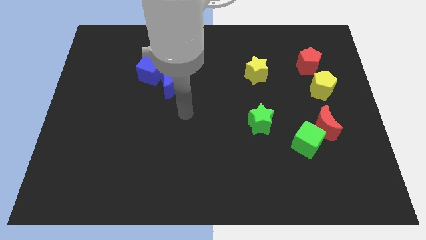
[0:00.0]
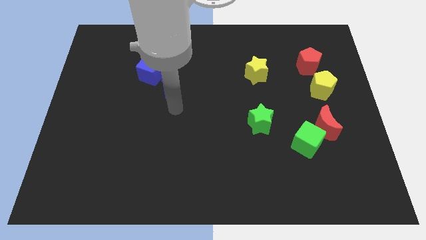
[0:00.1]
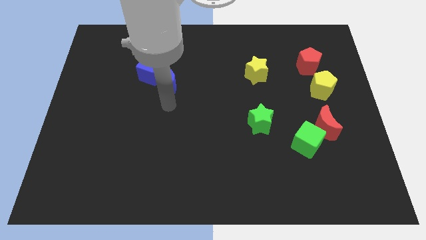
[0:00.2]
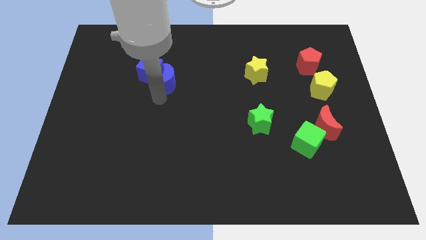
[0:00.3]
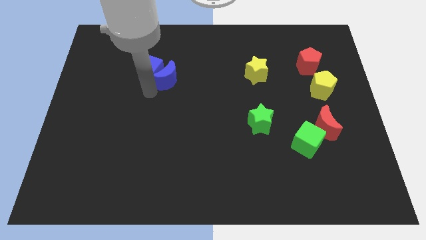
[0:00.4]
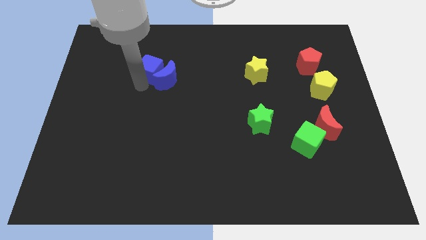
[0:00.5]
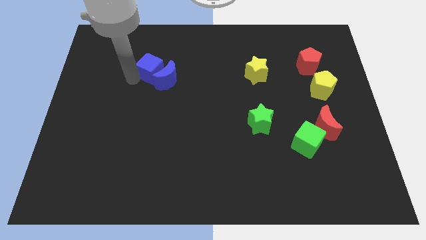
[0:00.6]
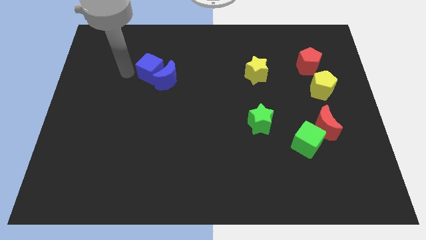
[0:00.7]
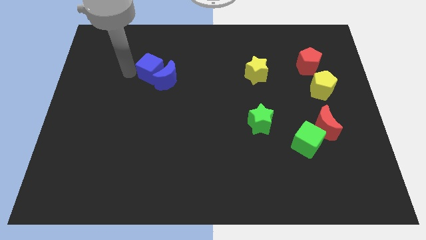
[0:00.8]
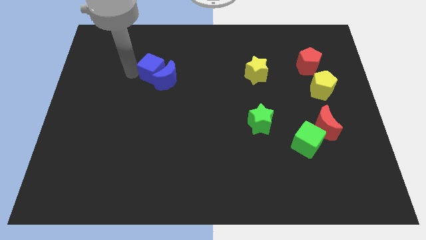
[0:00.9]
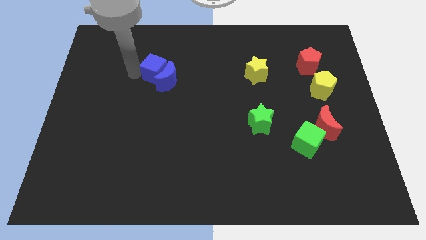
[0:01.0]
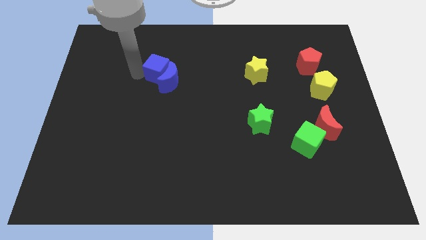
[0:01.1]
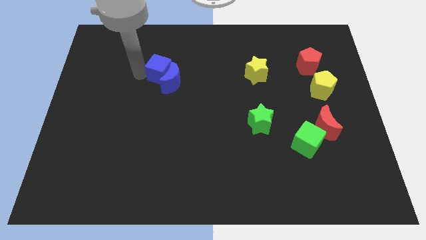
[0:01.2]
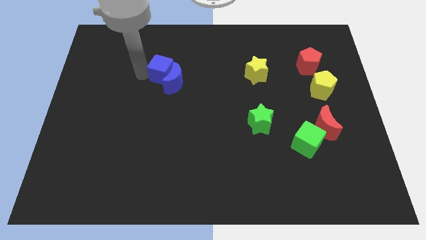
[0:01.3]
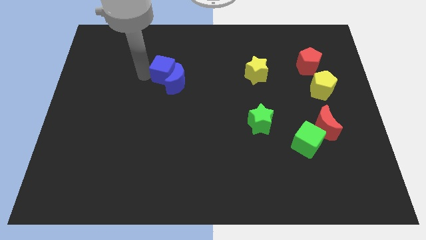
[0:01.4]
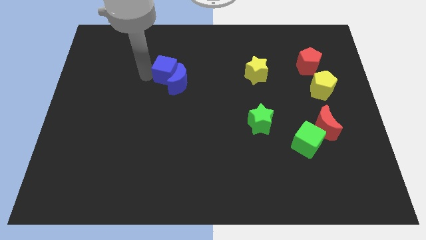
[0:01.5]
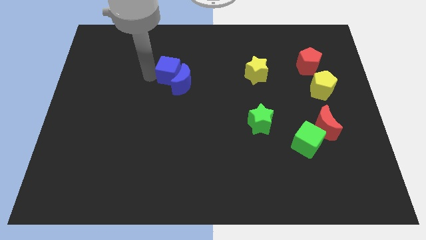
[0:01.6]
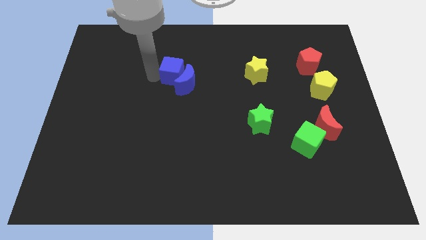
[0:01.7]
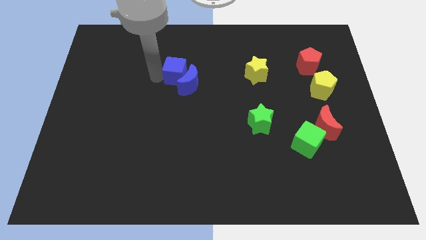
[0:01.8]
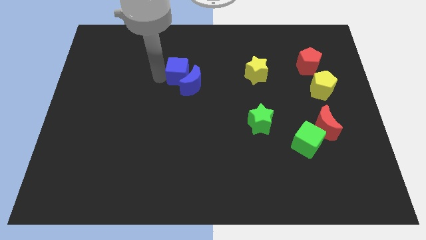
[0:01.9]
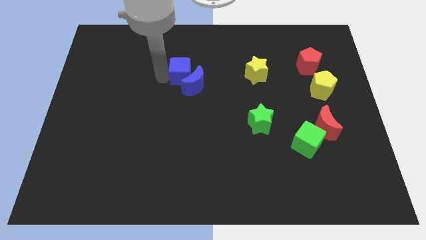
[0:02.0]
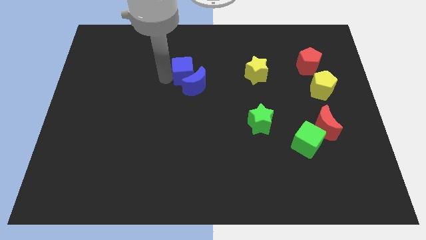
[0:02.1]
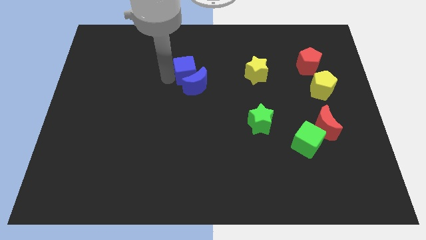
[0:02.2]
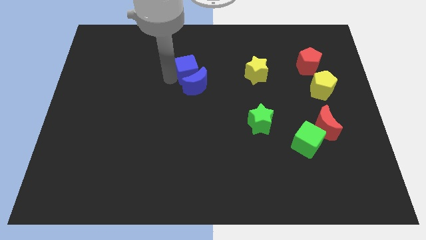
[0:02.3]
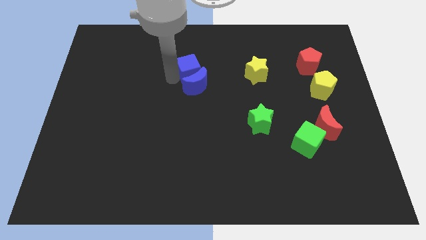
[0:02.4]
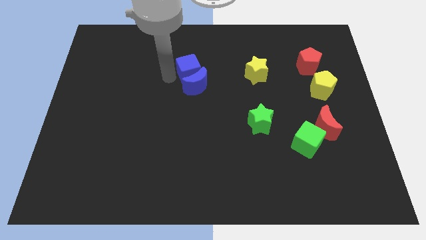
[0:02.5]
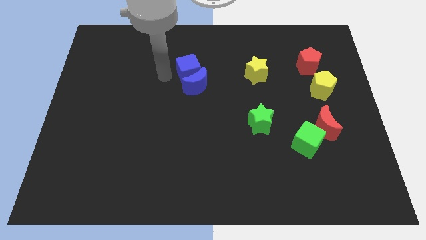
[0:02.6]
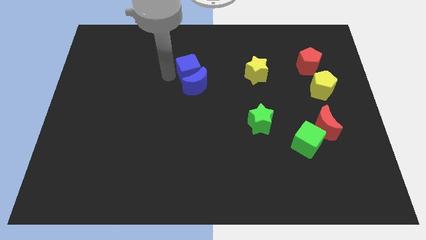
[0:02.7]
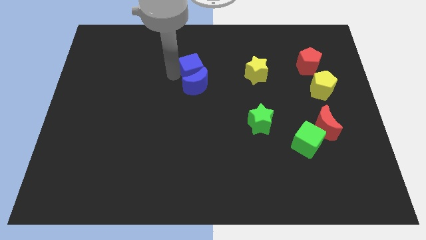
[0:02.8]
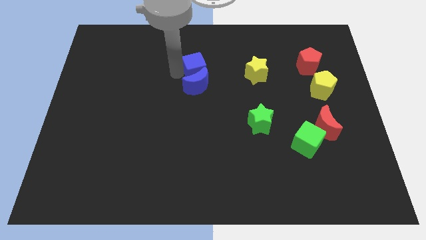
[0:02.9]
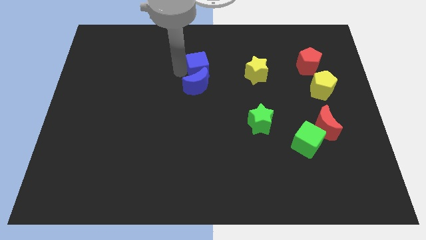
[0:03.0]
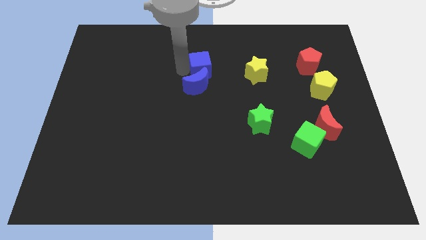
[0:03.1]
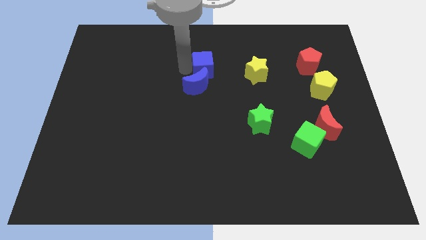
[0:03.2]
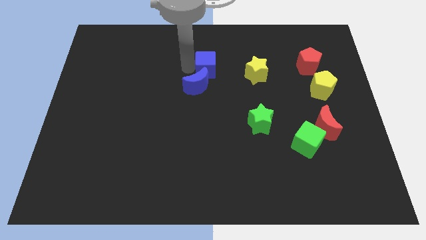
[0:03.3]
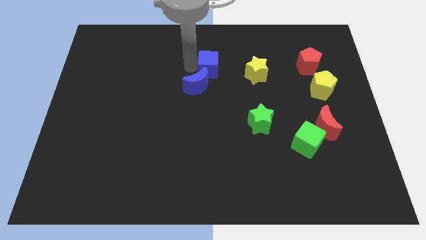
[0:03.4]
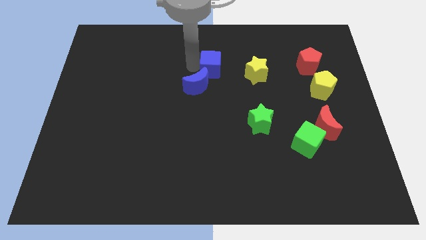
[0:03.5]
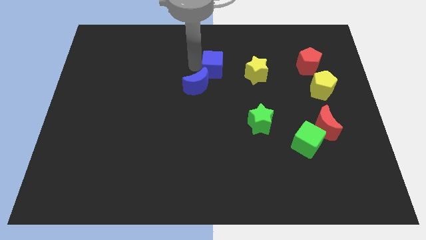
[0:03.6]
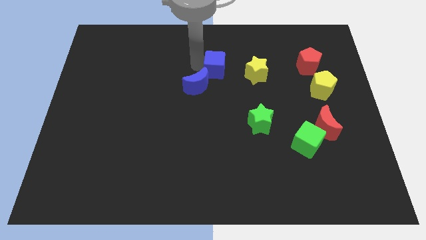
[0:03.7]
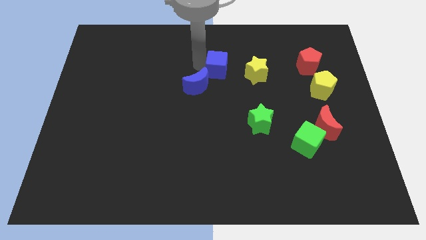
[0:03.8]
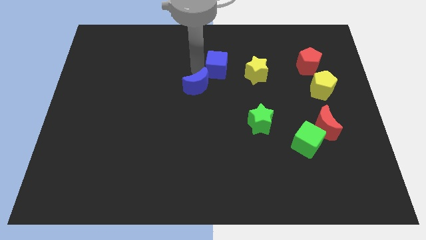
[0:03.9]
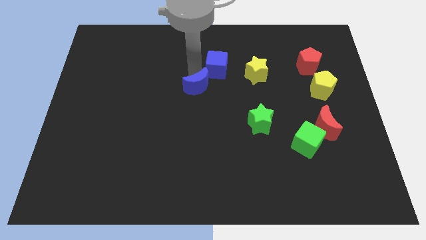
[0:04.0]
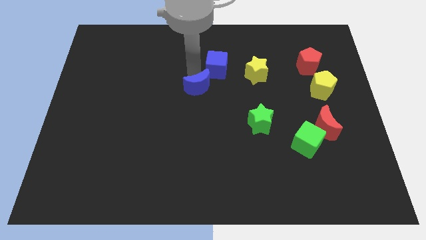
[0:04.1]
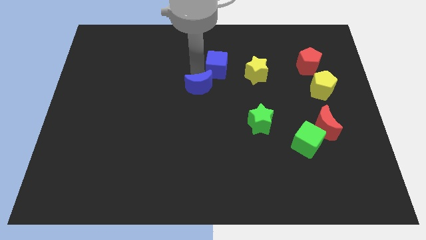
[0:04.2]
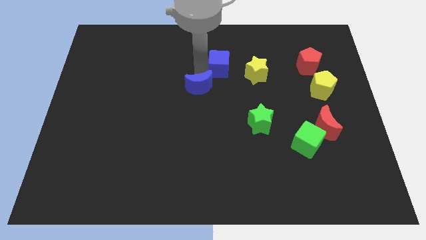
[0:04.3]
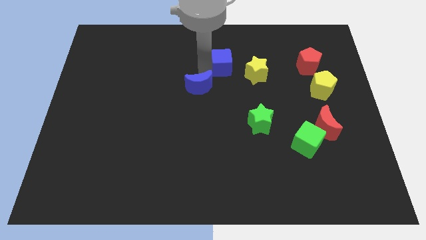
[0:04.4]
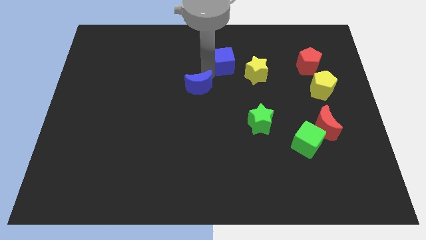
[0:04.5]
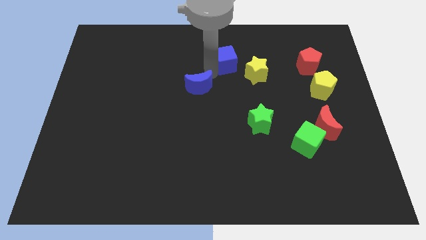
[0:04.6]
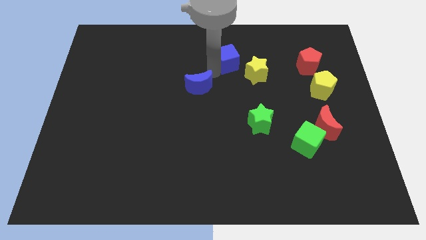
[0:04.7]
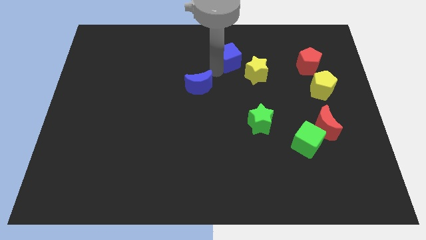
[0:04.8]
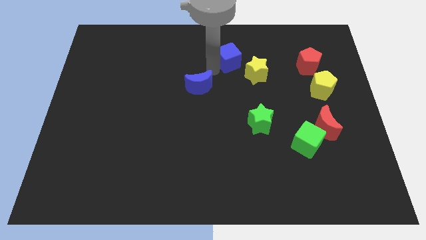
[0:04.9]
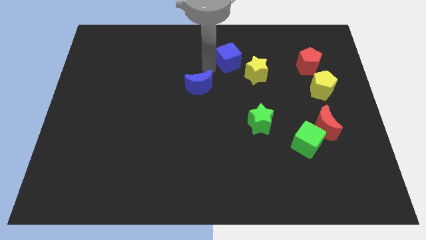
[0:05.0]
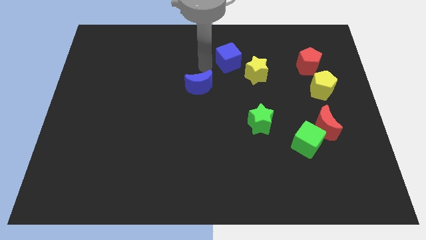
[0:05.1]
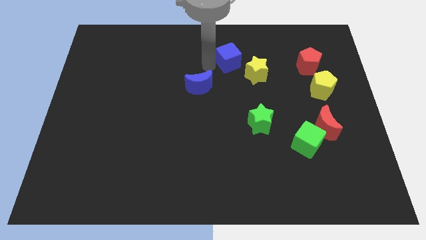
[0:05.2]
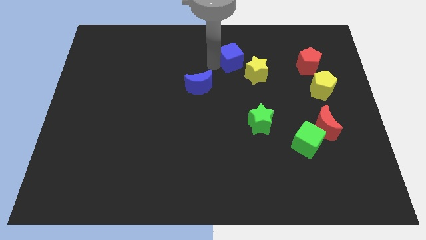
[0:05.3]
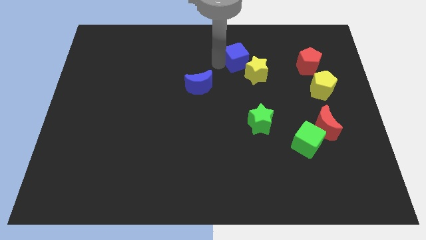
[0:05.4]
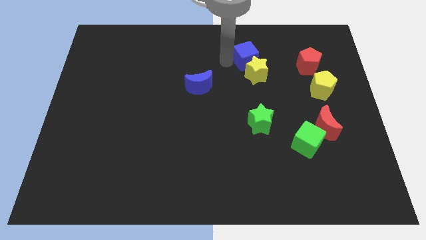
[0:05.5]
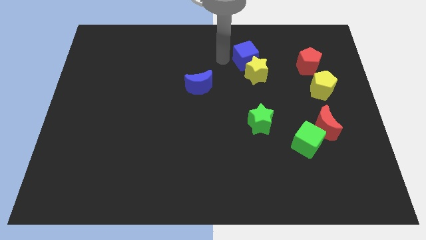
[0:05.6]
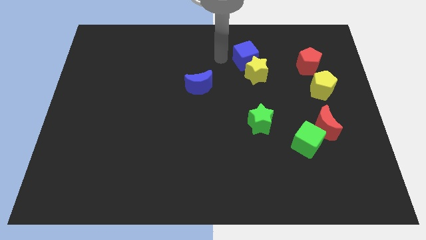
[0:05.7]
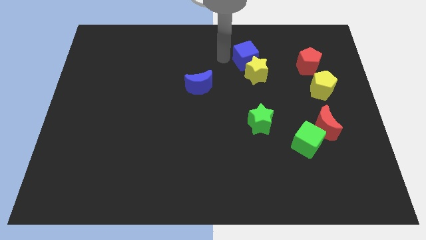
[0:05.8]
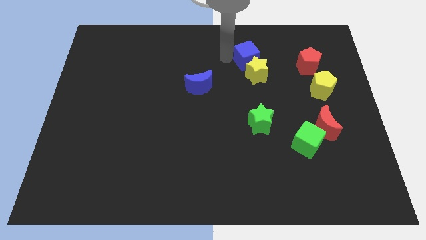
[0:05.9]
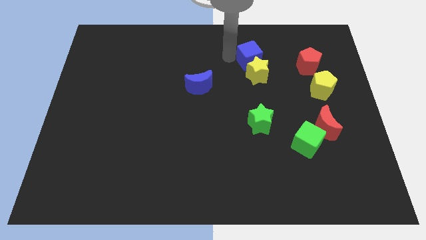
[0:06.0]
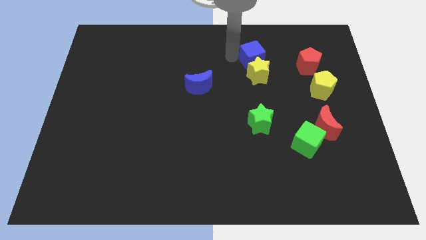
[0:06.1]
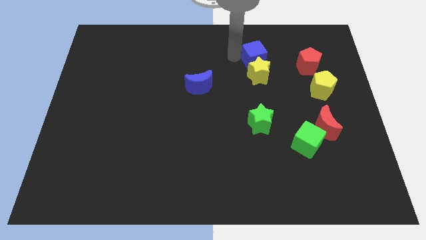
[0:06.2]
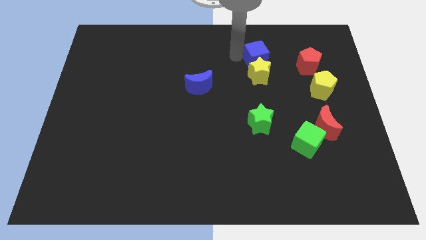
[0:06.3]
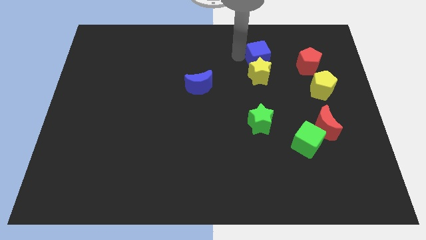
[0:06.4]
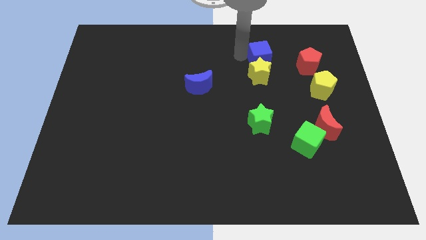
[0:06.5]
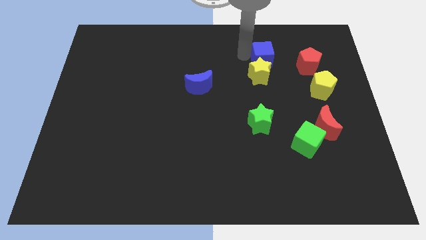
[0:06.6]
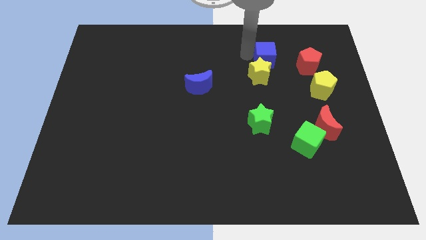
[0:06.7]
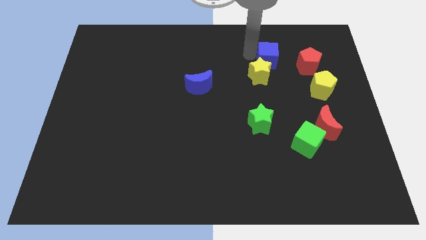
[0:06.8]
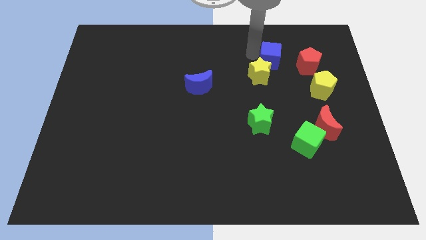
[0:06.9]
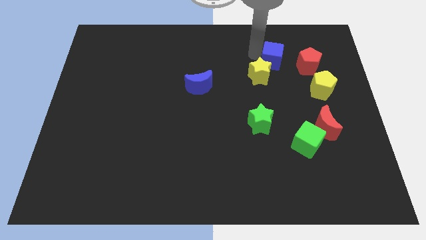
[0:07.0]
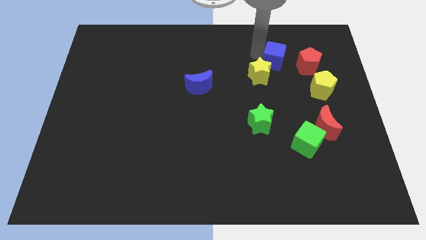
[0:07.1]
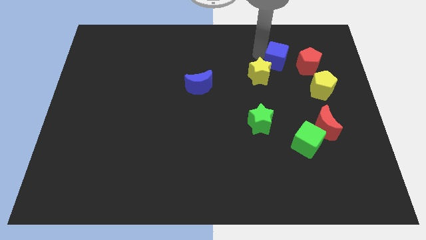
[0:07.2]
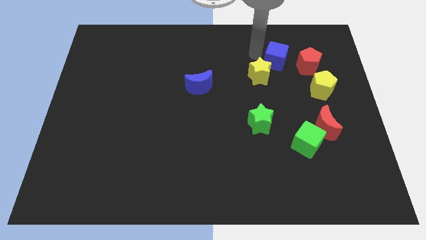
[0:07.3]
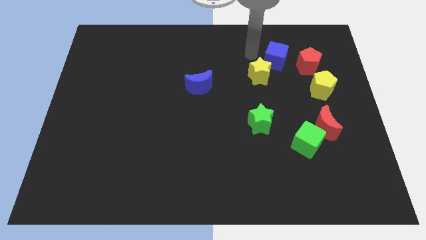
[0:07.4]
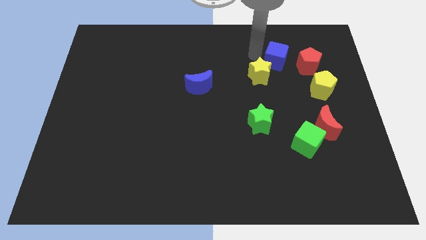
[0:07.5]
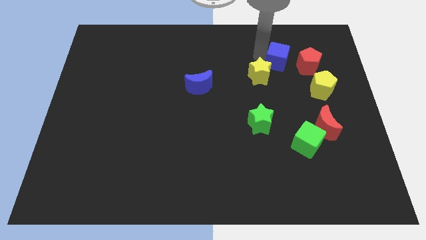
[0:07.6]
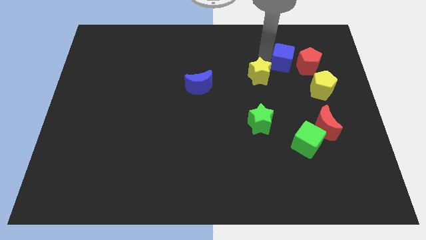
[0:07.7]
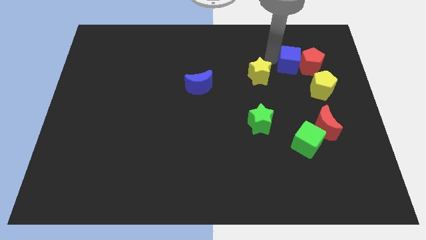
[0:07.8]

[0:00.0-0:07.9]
move the blue cube next to the red pentagon
